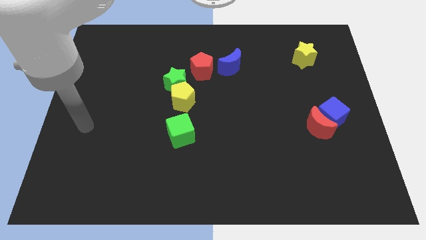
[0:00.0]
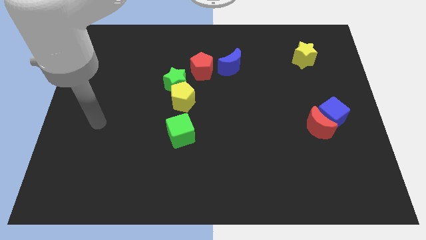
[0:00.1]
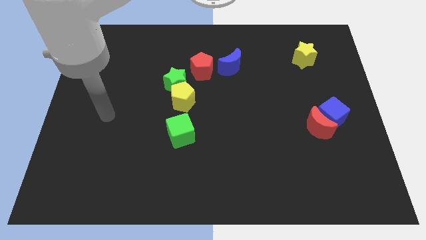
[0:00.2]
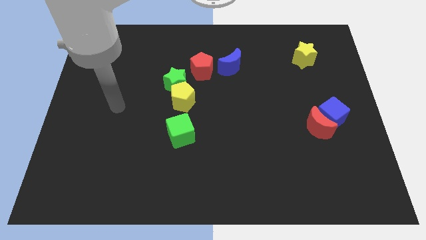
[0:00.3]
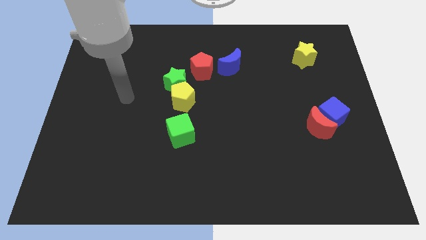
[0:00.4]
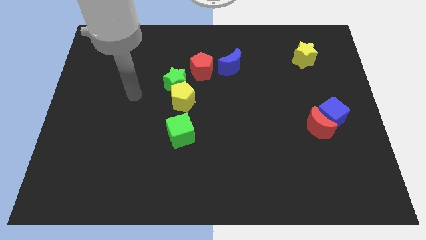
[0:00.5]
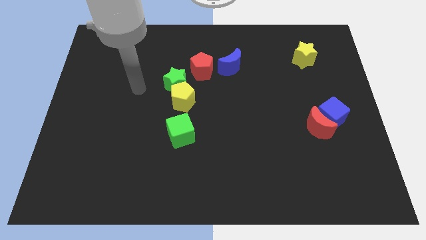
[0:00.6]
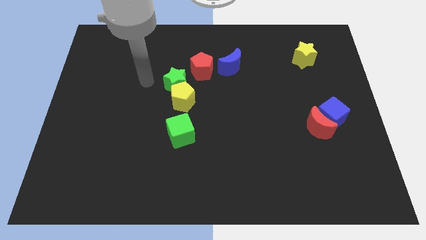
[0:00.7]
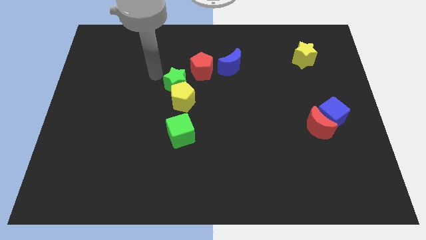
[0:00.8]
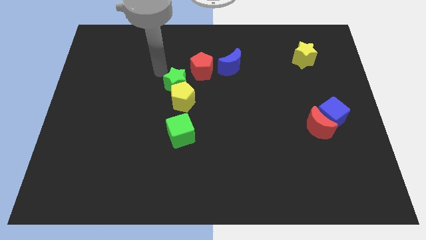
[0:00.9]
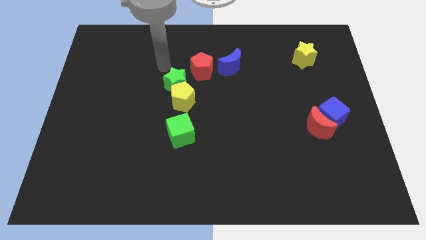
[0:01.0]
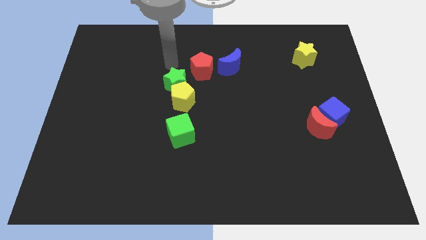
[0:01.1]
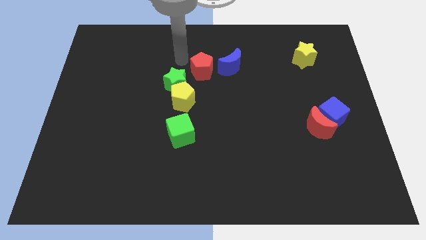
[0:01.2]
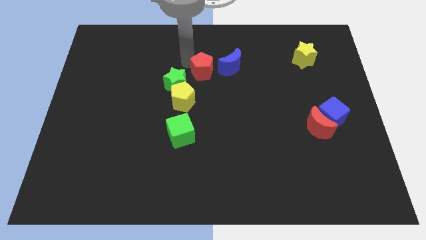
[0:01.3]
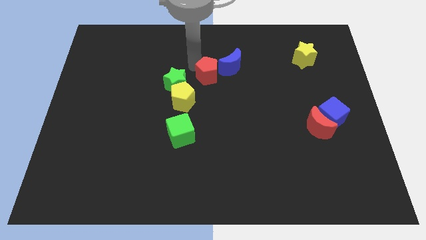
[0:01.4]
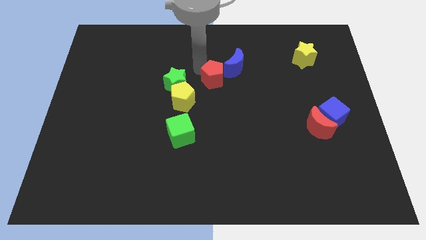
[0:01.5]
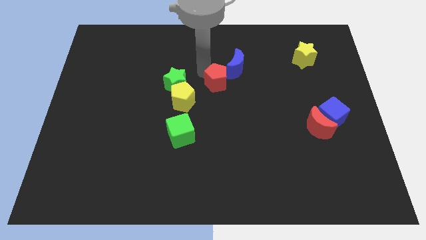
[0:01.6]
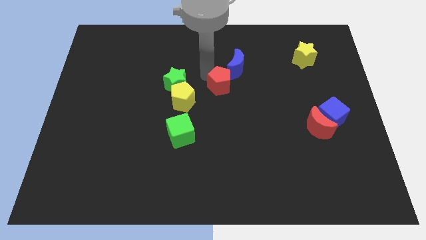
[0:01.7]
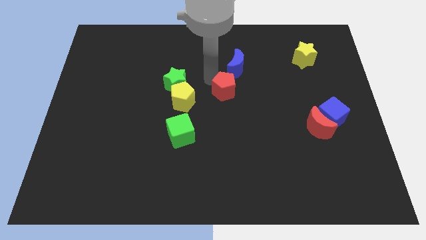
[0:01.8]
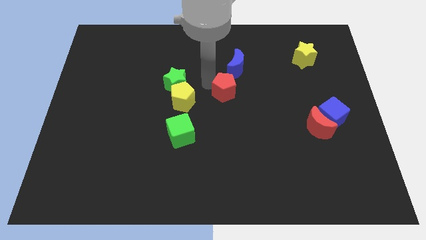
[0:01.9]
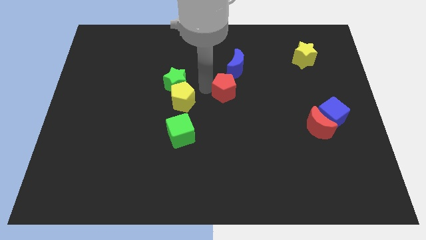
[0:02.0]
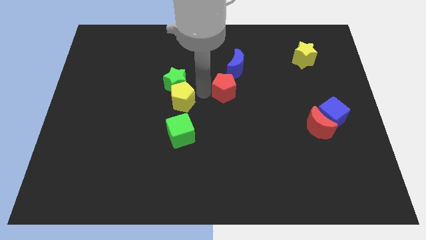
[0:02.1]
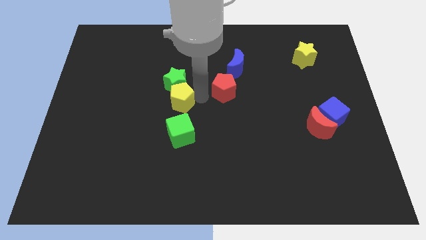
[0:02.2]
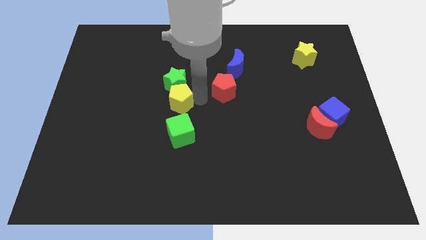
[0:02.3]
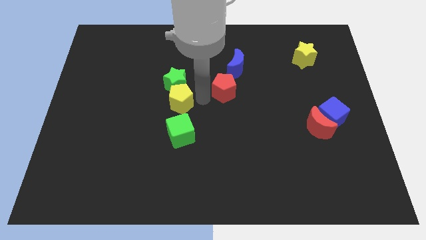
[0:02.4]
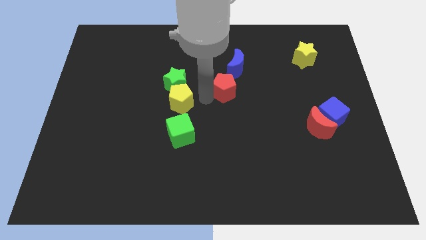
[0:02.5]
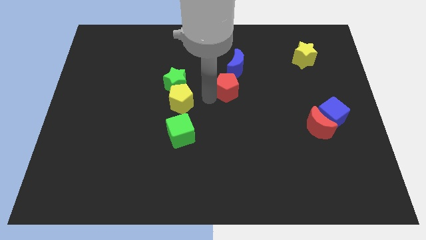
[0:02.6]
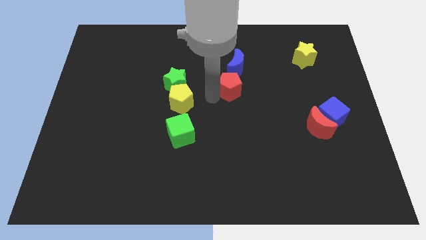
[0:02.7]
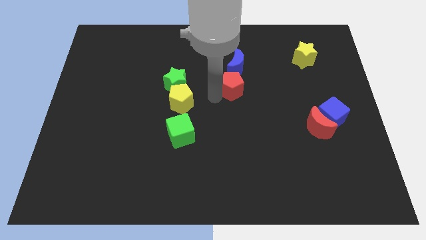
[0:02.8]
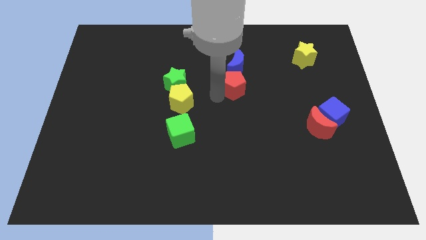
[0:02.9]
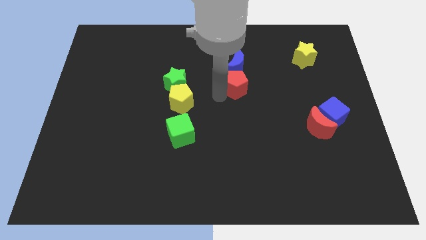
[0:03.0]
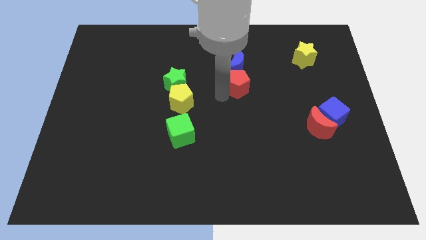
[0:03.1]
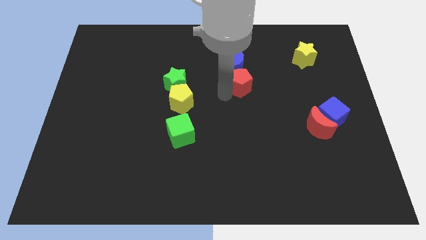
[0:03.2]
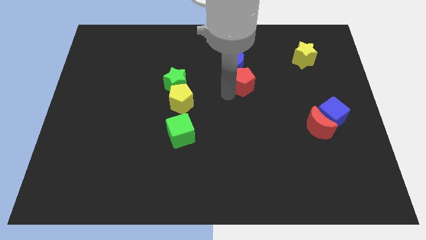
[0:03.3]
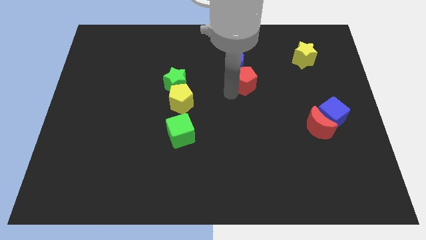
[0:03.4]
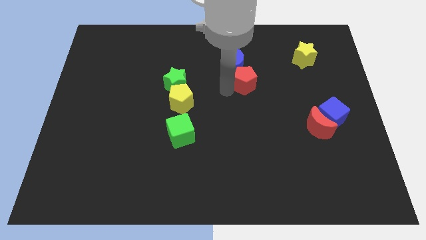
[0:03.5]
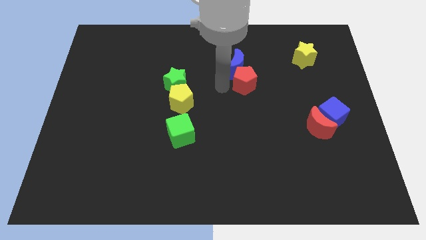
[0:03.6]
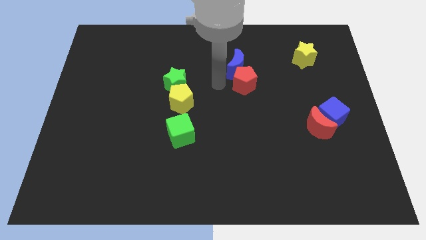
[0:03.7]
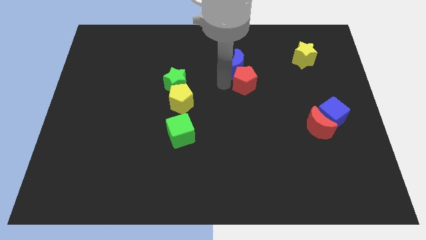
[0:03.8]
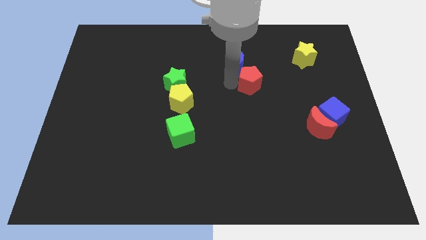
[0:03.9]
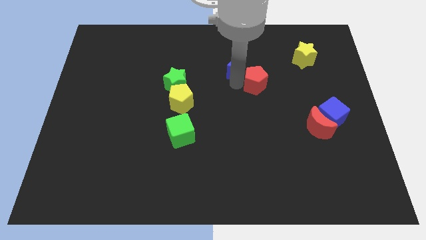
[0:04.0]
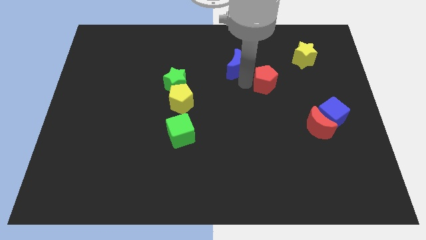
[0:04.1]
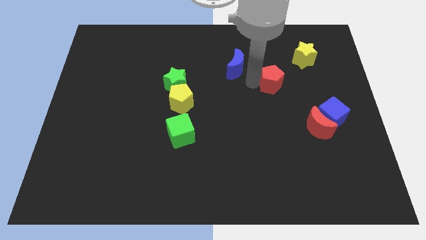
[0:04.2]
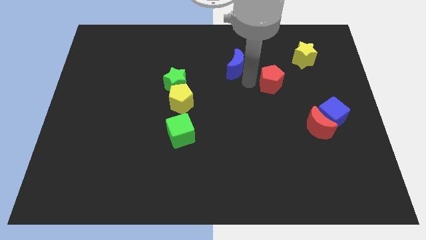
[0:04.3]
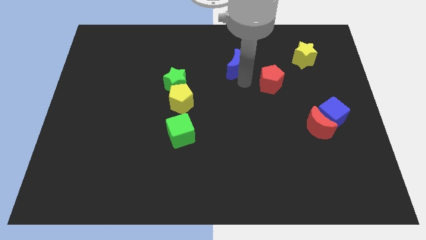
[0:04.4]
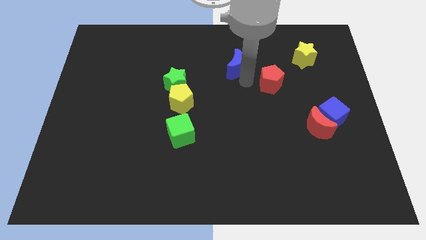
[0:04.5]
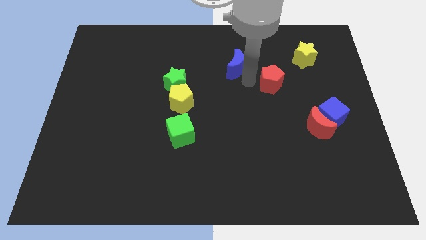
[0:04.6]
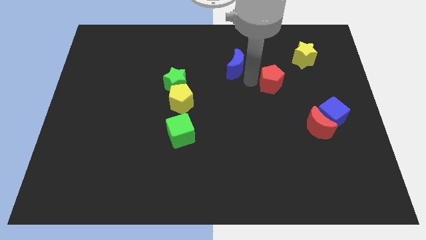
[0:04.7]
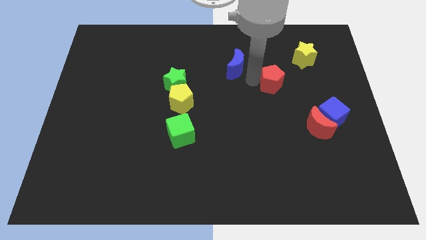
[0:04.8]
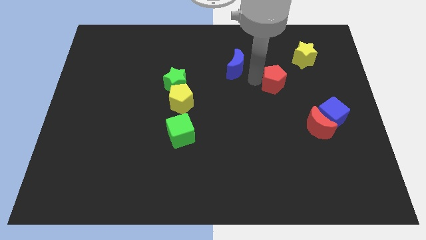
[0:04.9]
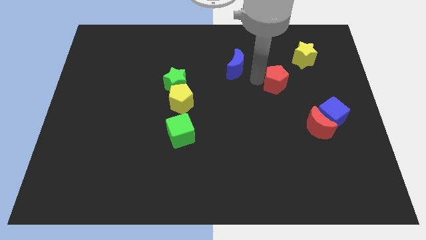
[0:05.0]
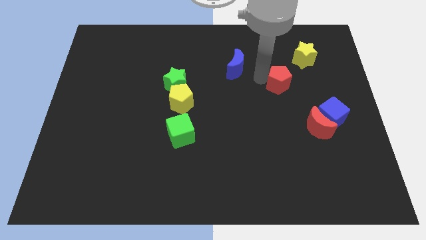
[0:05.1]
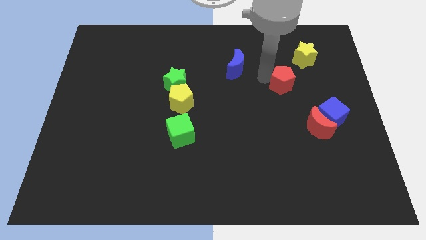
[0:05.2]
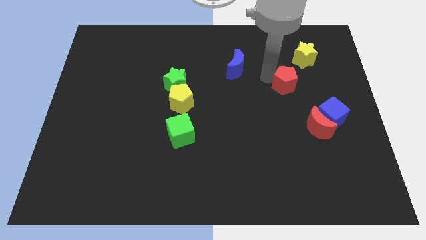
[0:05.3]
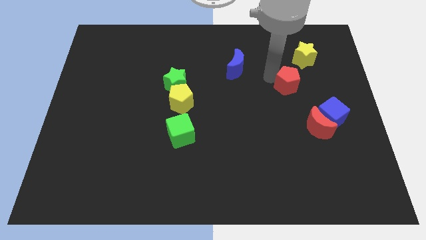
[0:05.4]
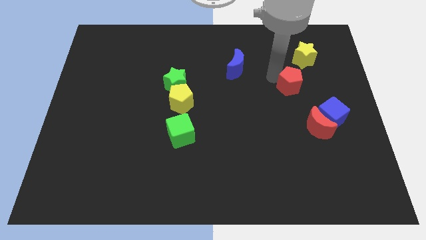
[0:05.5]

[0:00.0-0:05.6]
move the red pentagon to the bottom of the yellow star

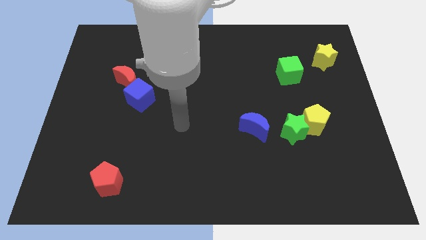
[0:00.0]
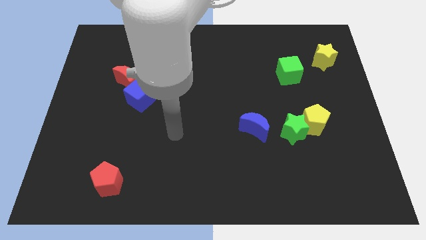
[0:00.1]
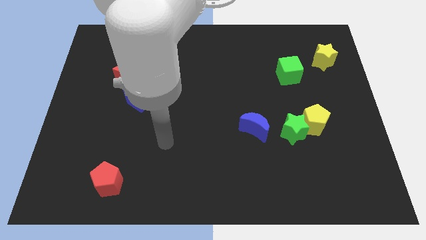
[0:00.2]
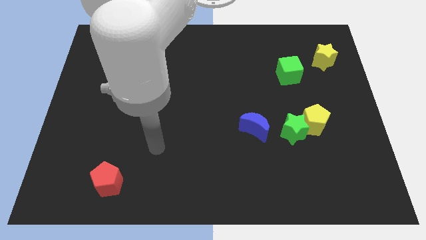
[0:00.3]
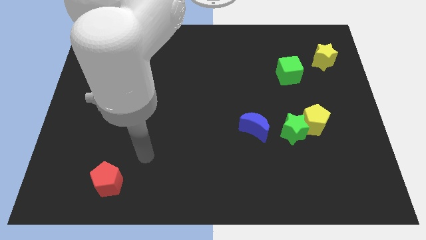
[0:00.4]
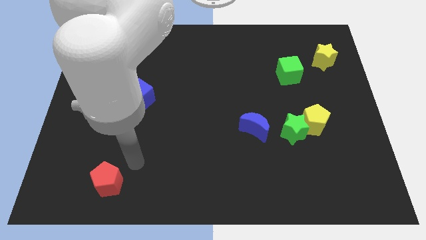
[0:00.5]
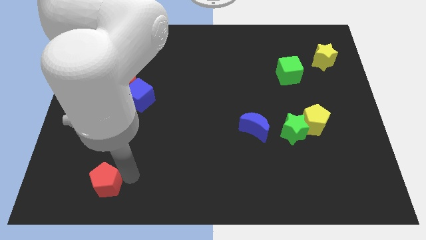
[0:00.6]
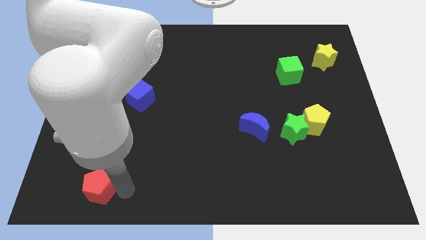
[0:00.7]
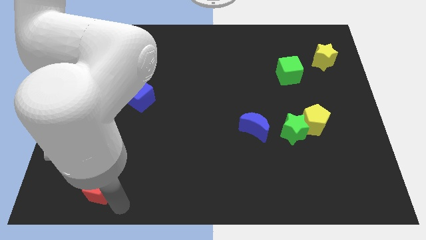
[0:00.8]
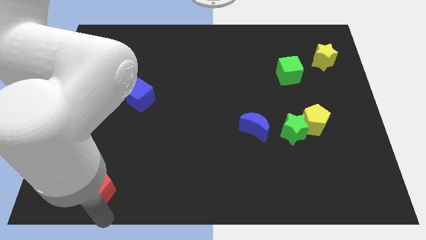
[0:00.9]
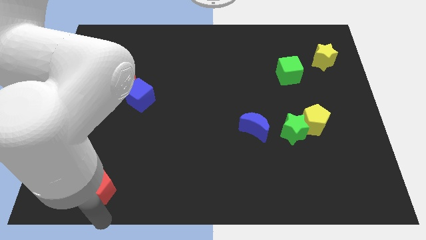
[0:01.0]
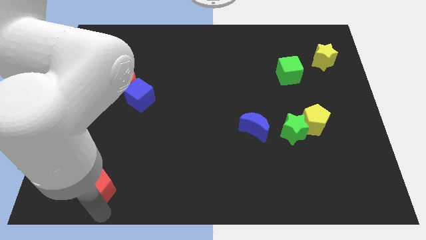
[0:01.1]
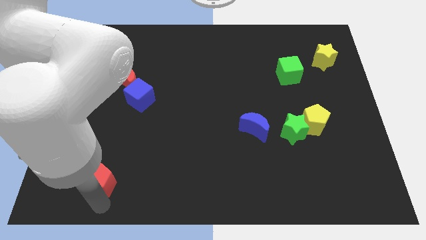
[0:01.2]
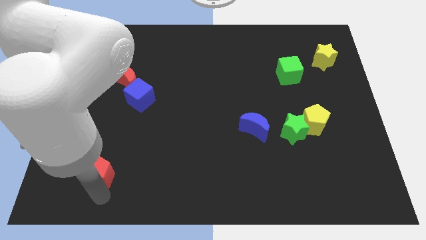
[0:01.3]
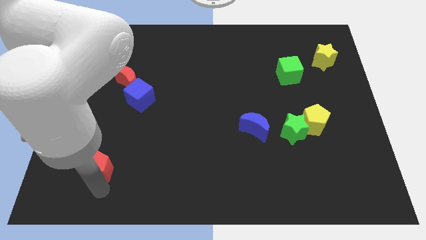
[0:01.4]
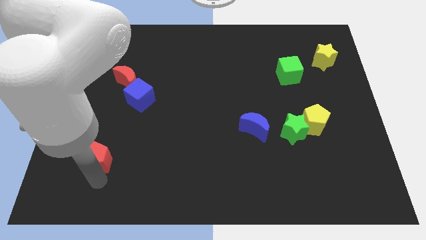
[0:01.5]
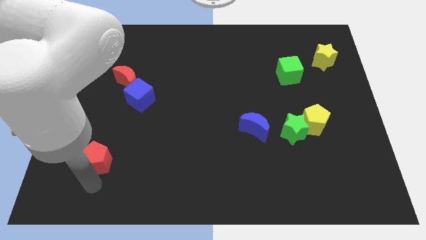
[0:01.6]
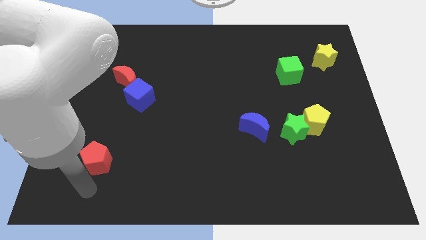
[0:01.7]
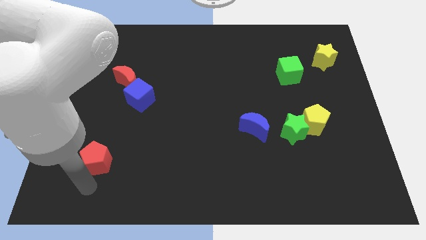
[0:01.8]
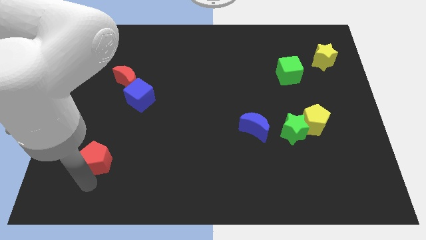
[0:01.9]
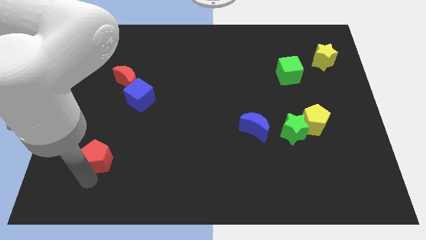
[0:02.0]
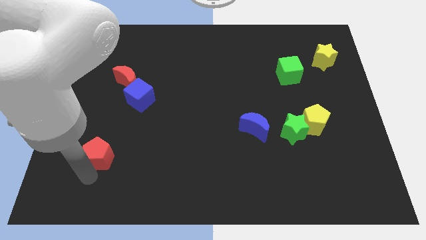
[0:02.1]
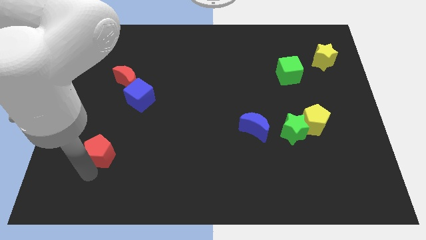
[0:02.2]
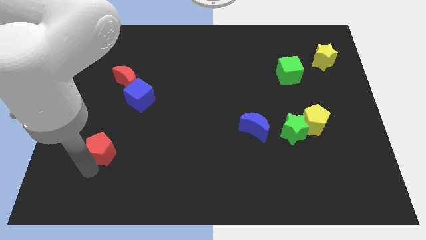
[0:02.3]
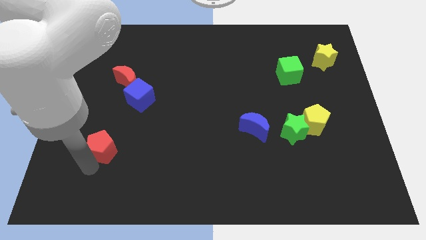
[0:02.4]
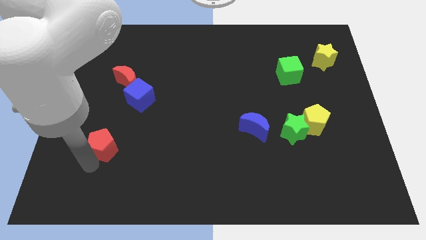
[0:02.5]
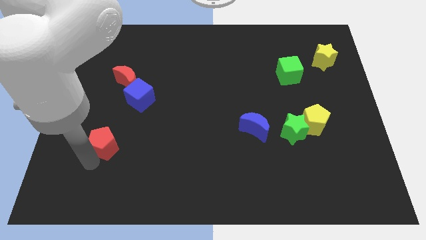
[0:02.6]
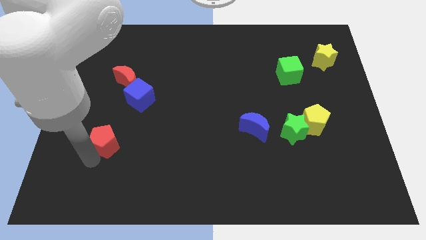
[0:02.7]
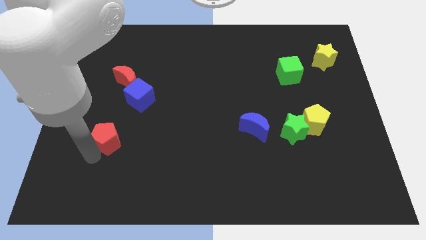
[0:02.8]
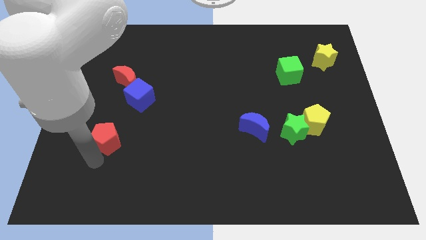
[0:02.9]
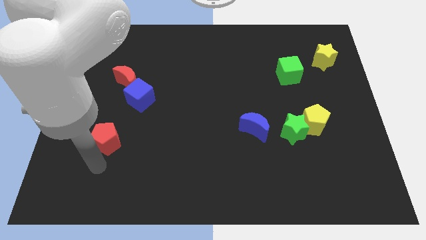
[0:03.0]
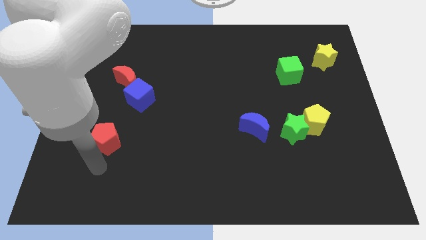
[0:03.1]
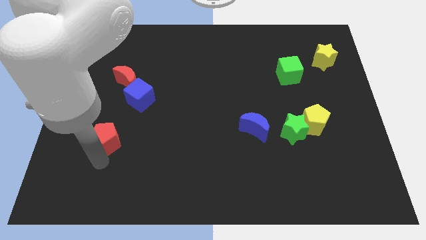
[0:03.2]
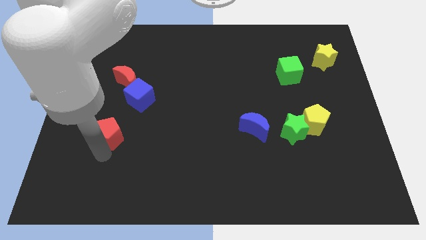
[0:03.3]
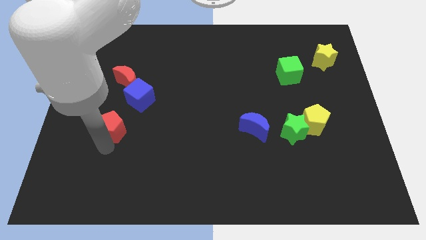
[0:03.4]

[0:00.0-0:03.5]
put the red pentagon to the bottom left of the blue cube
